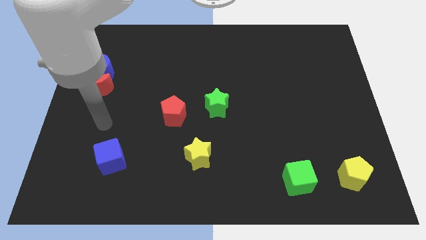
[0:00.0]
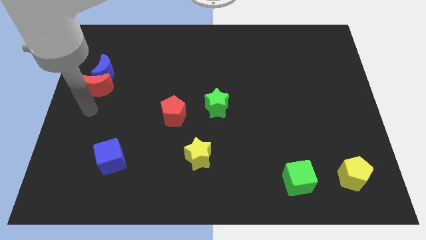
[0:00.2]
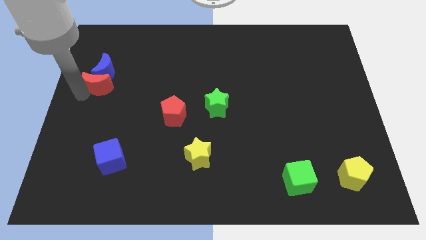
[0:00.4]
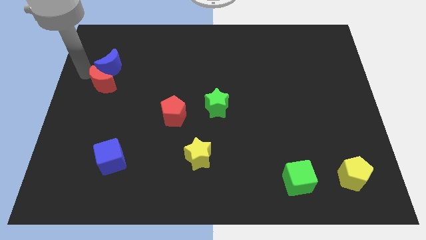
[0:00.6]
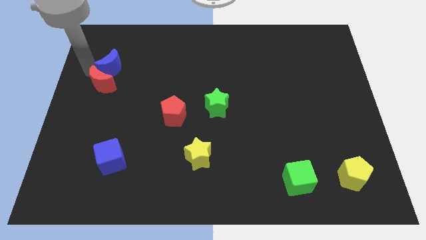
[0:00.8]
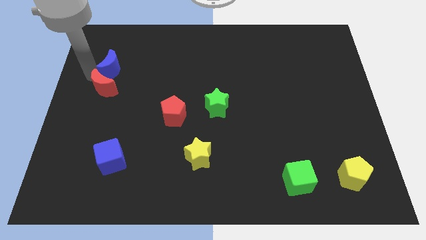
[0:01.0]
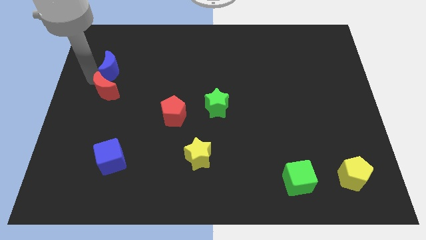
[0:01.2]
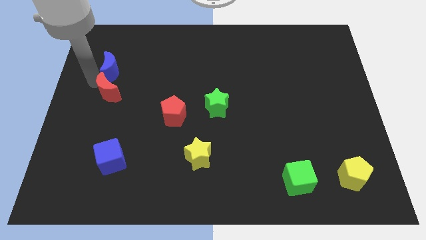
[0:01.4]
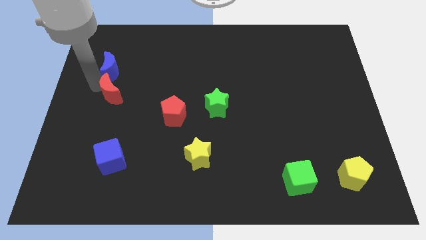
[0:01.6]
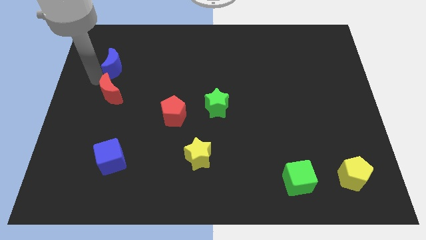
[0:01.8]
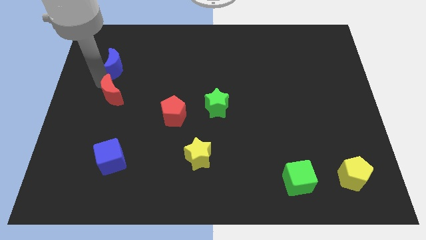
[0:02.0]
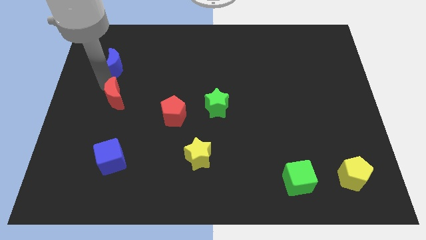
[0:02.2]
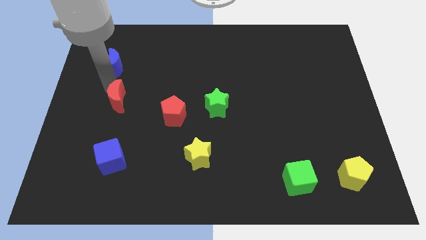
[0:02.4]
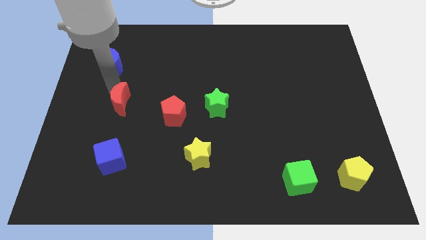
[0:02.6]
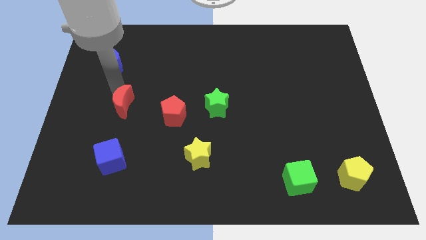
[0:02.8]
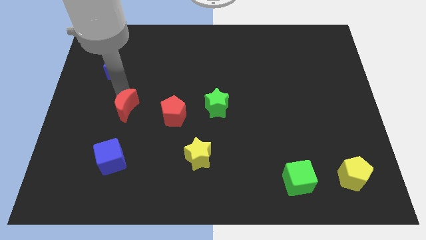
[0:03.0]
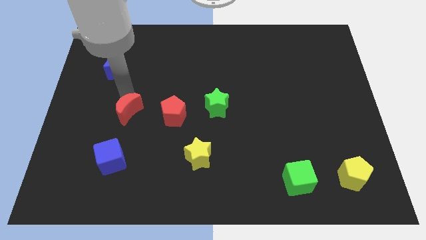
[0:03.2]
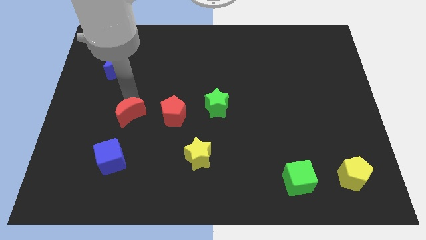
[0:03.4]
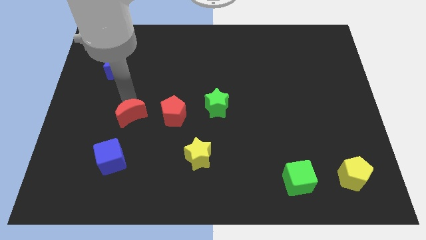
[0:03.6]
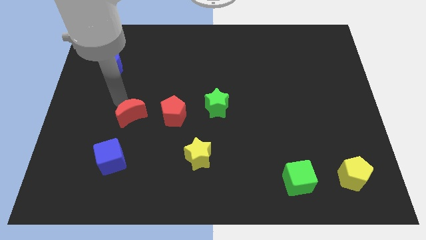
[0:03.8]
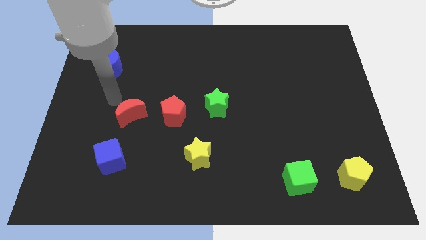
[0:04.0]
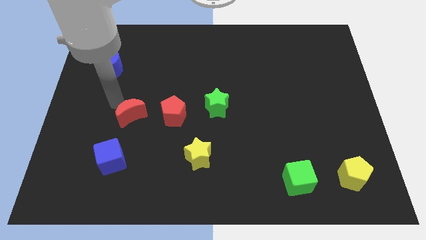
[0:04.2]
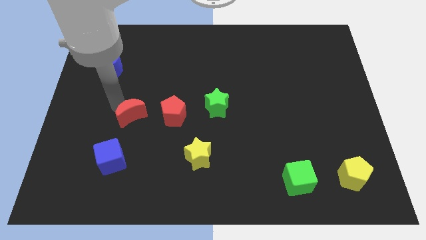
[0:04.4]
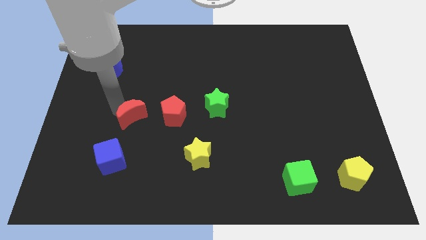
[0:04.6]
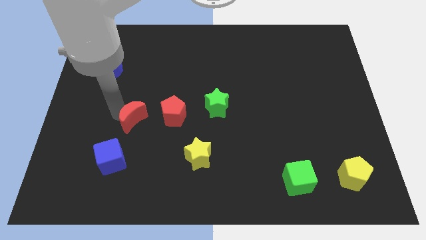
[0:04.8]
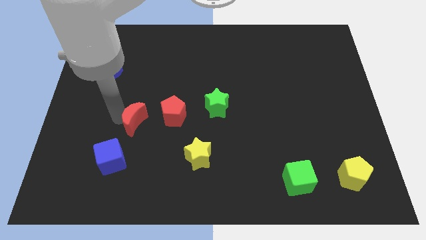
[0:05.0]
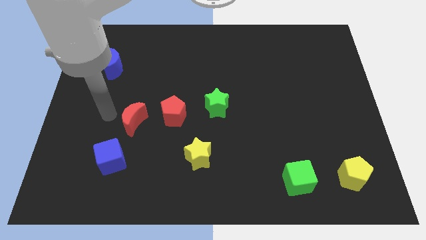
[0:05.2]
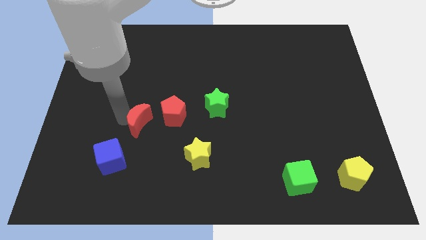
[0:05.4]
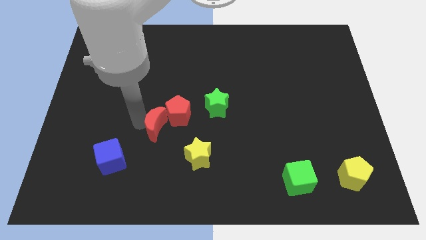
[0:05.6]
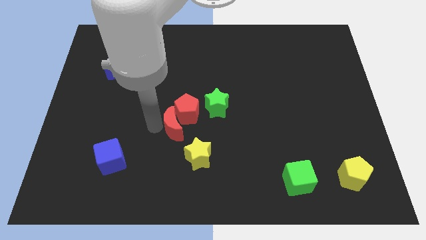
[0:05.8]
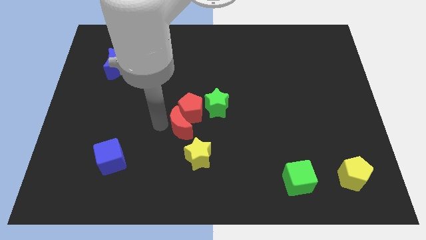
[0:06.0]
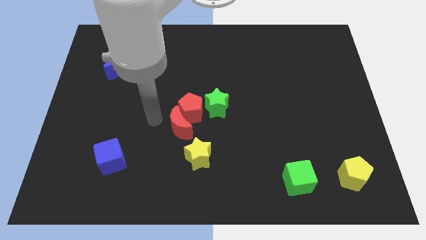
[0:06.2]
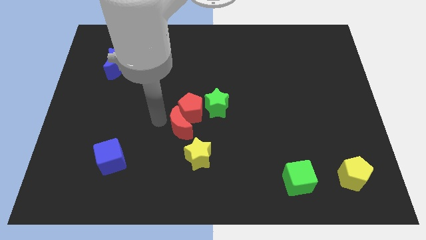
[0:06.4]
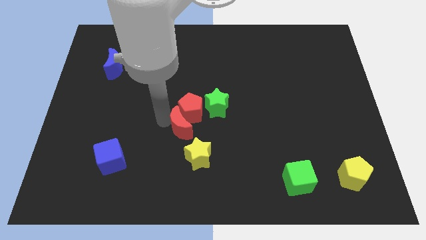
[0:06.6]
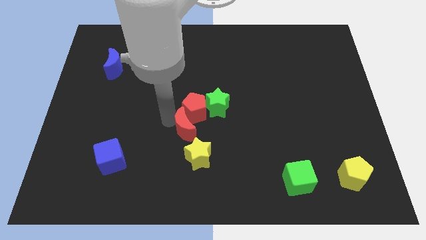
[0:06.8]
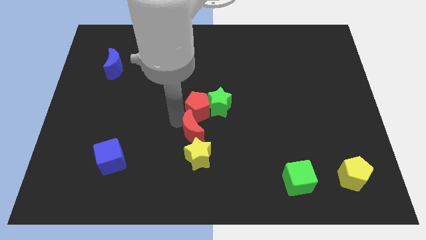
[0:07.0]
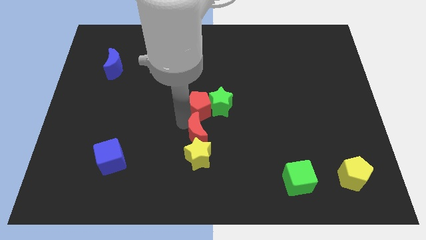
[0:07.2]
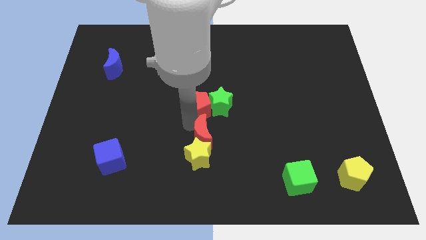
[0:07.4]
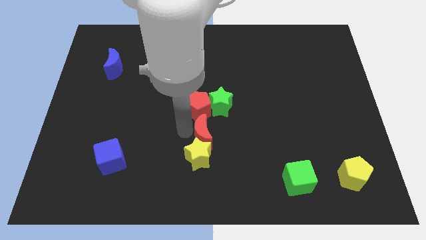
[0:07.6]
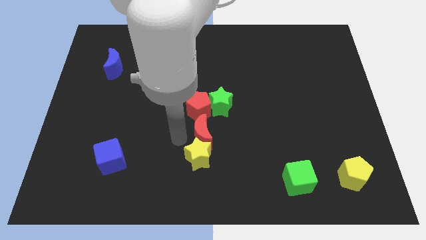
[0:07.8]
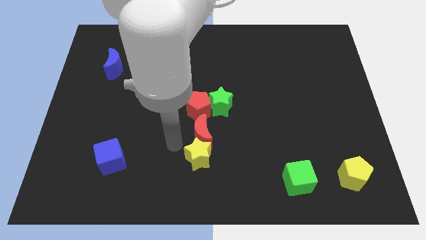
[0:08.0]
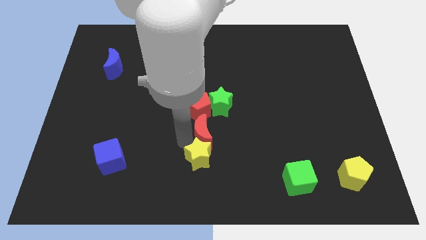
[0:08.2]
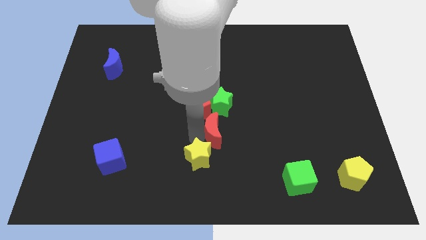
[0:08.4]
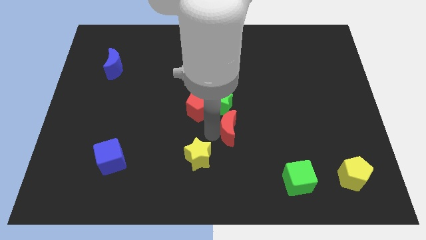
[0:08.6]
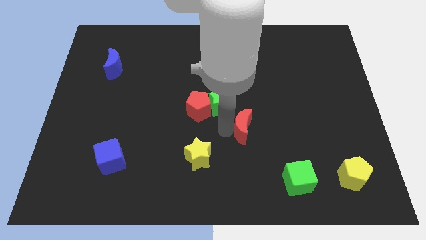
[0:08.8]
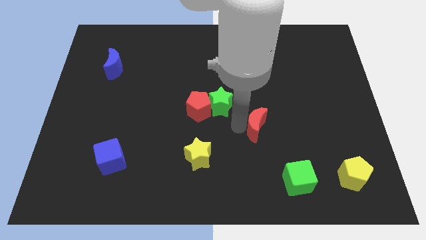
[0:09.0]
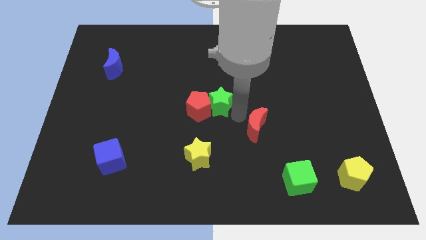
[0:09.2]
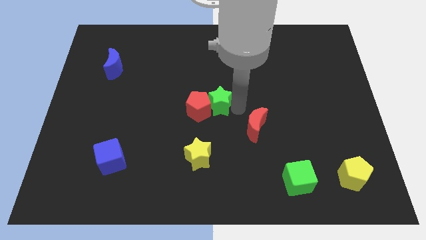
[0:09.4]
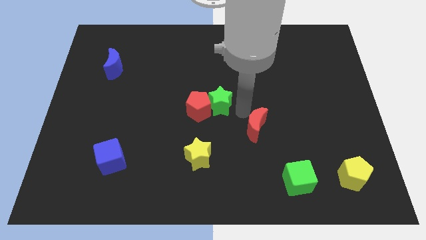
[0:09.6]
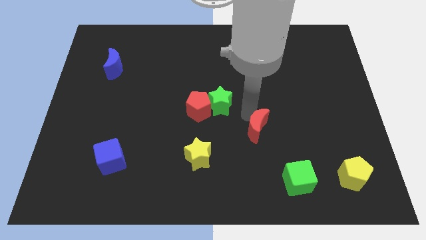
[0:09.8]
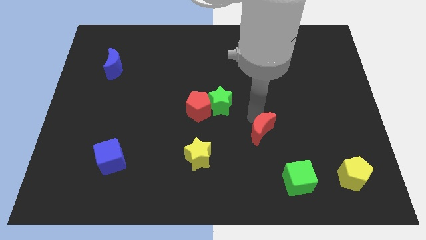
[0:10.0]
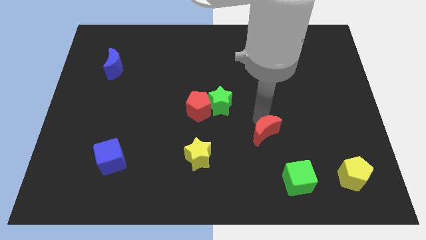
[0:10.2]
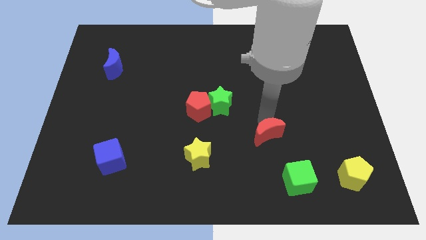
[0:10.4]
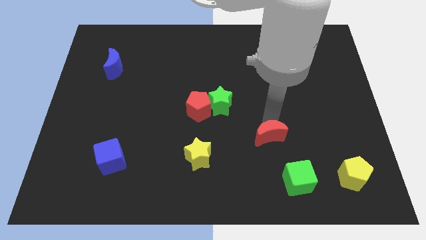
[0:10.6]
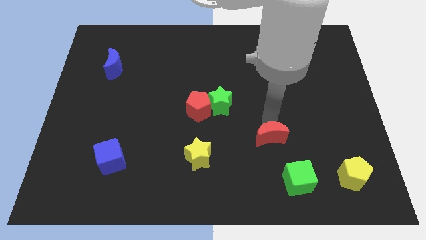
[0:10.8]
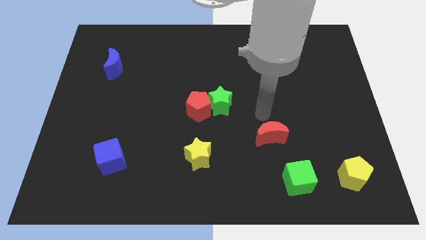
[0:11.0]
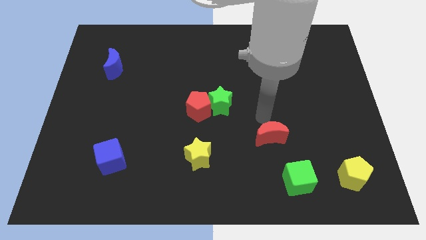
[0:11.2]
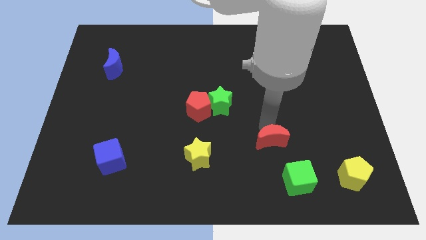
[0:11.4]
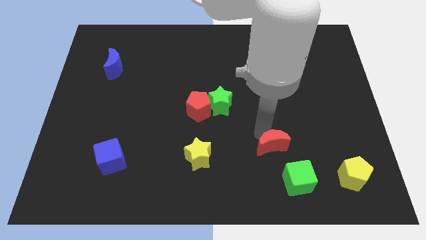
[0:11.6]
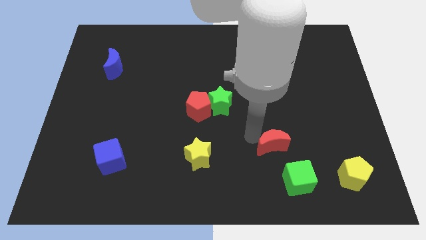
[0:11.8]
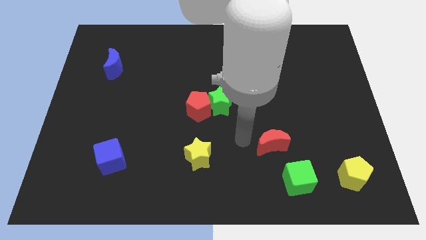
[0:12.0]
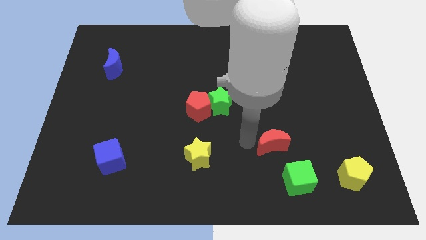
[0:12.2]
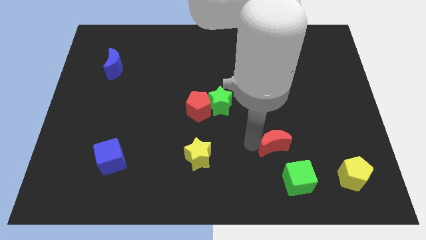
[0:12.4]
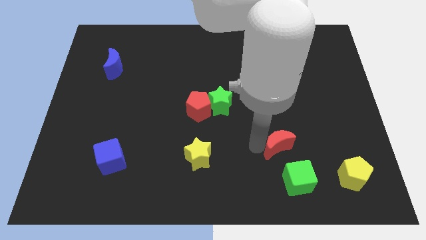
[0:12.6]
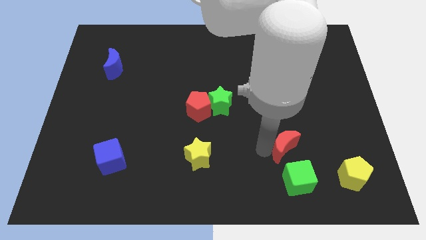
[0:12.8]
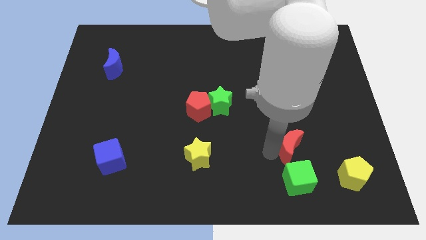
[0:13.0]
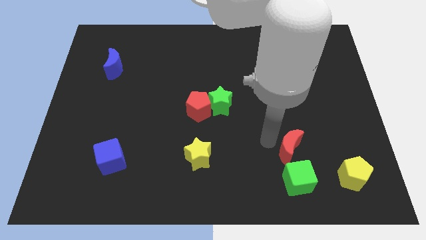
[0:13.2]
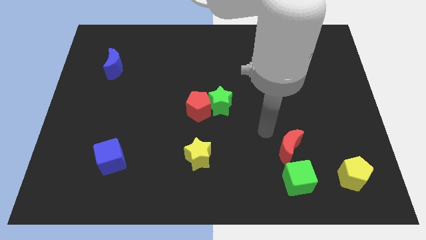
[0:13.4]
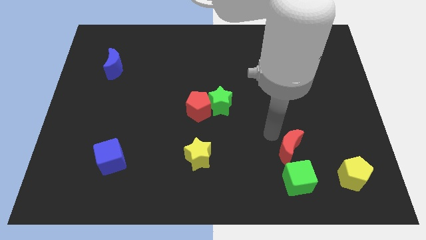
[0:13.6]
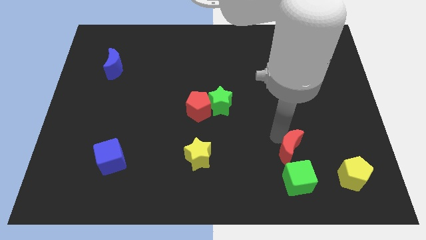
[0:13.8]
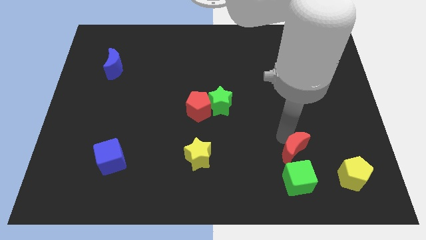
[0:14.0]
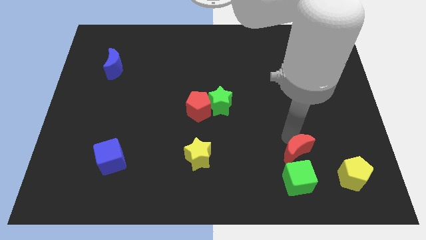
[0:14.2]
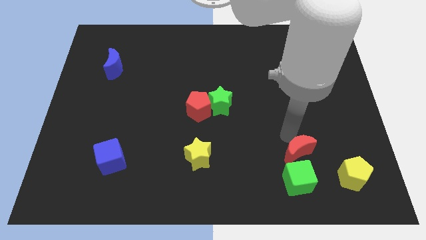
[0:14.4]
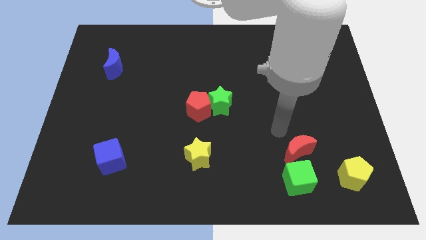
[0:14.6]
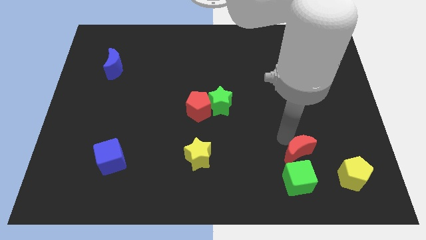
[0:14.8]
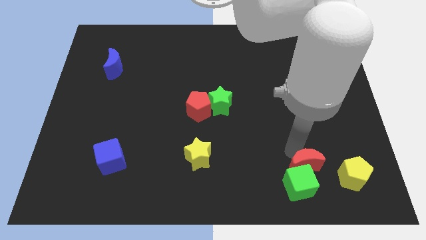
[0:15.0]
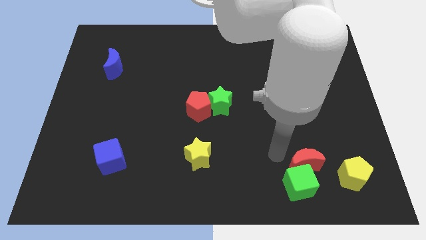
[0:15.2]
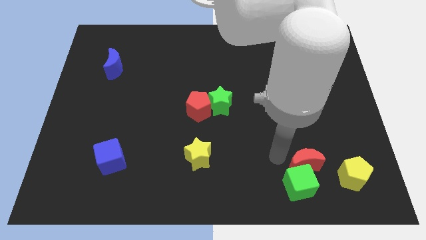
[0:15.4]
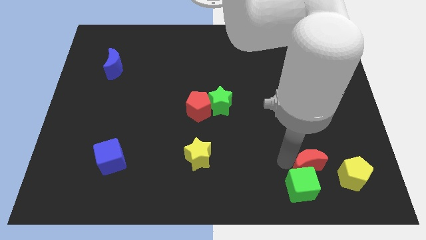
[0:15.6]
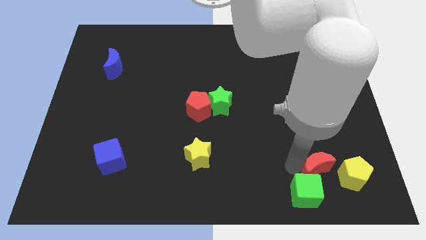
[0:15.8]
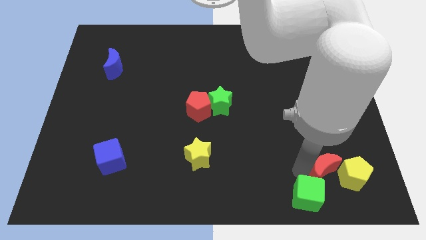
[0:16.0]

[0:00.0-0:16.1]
push the red moon close to the yellow pentagon
